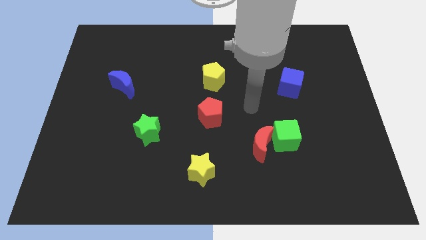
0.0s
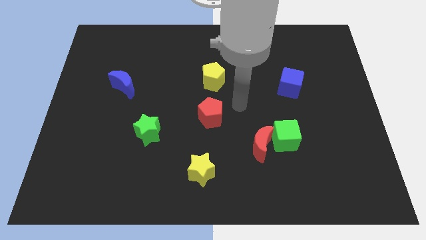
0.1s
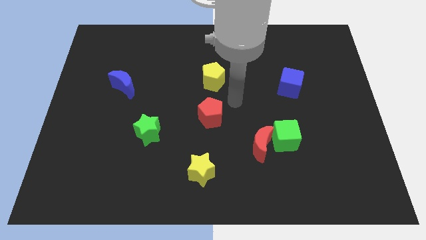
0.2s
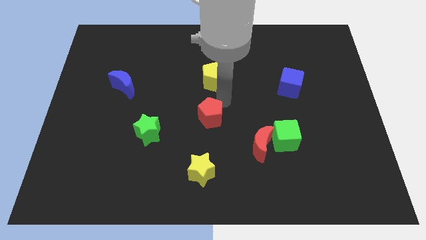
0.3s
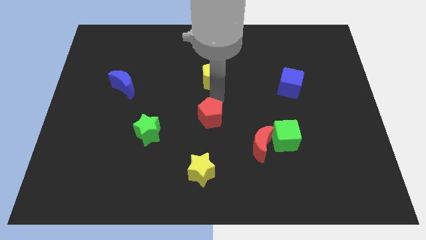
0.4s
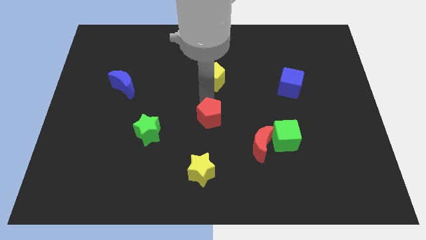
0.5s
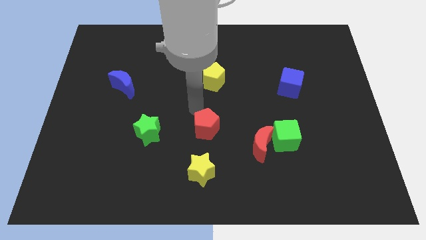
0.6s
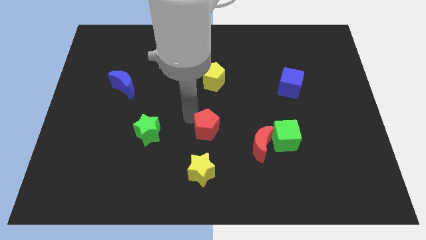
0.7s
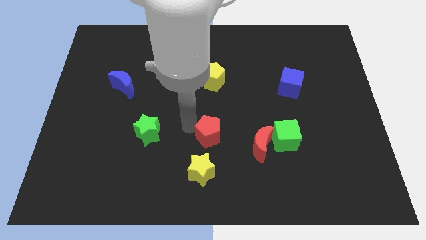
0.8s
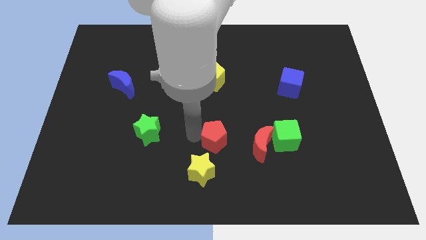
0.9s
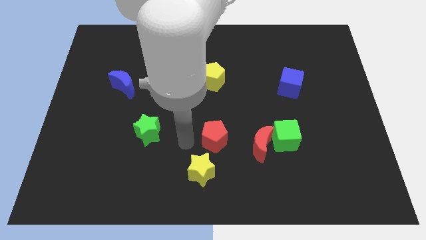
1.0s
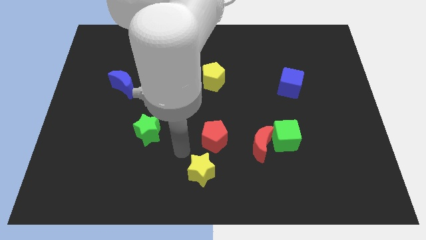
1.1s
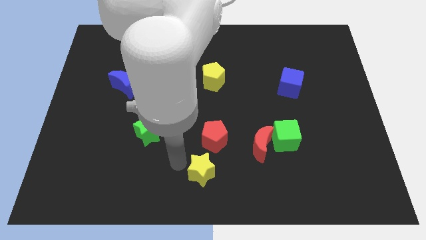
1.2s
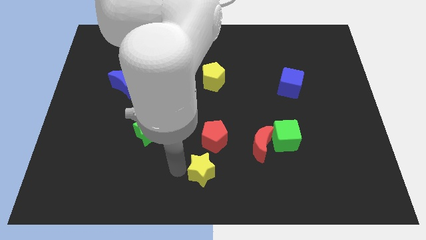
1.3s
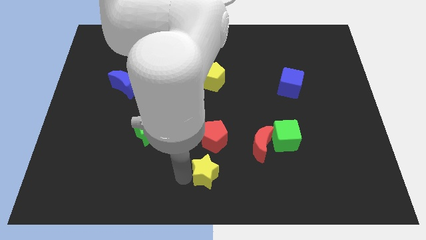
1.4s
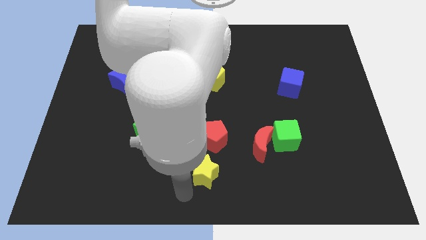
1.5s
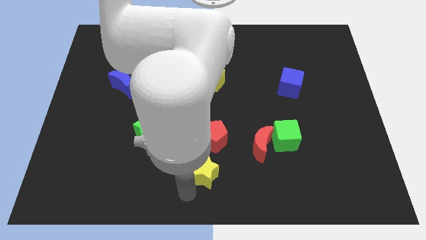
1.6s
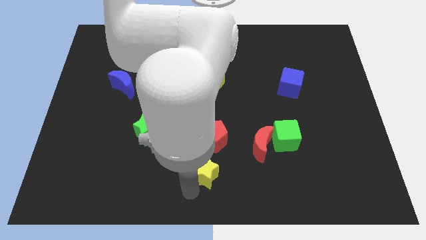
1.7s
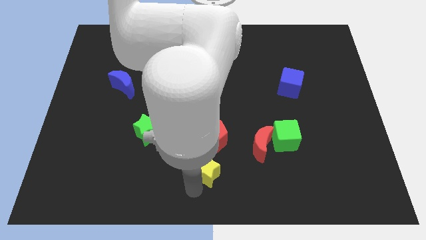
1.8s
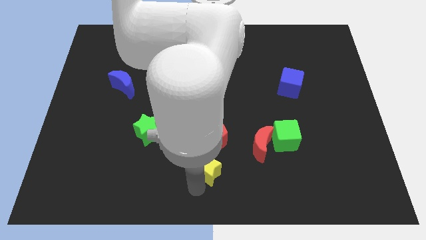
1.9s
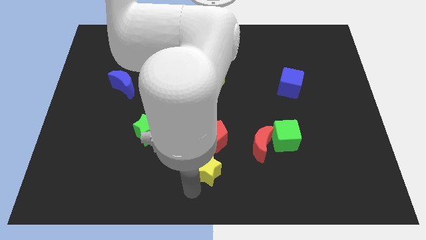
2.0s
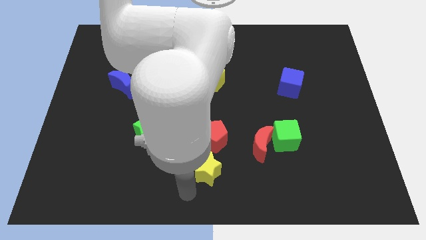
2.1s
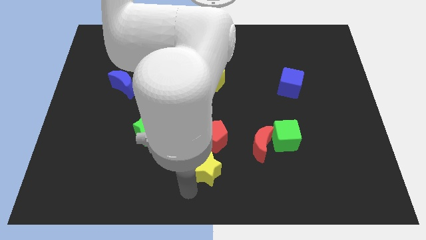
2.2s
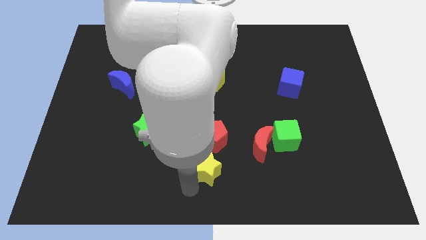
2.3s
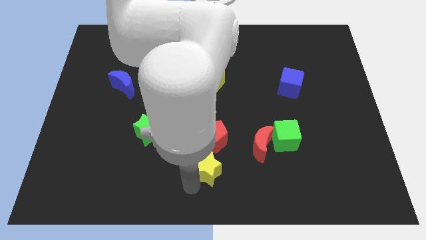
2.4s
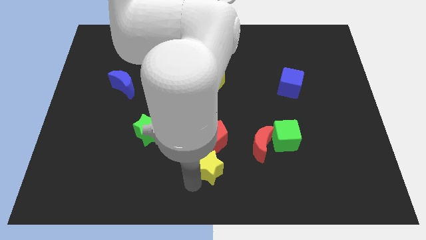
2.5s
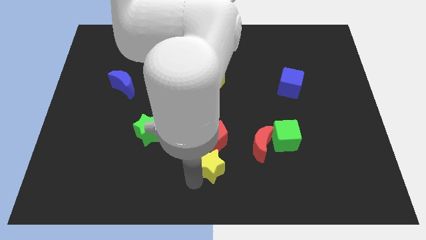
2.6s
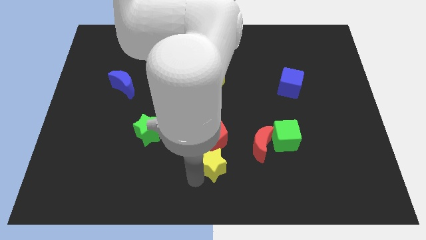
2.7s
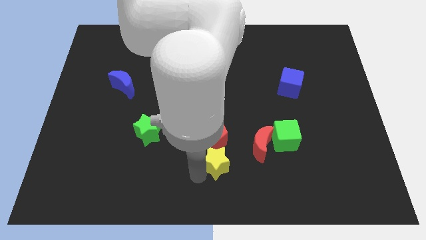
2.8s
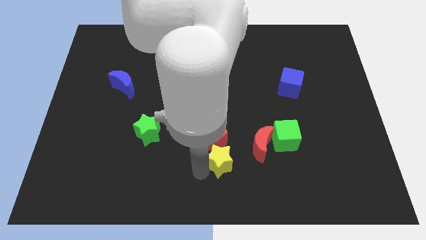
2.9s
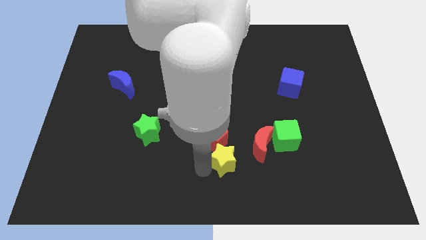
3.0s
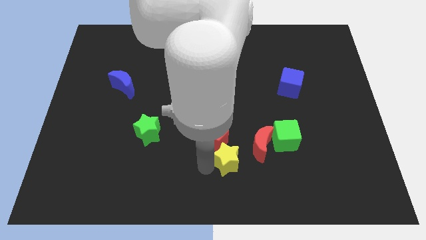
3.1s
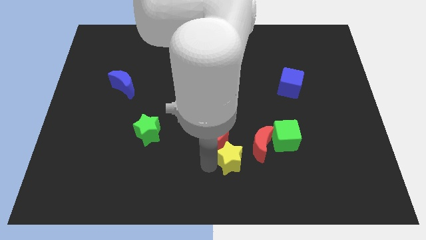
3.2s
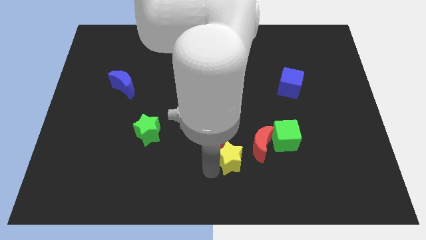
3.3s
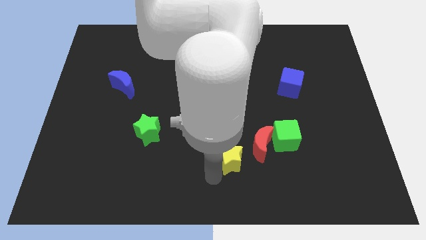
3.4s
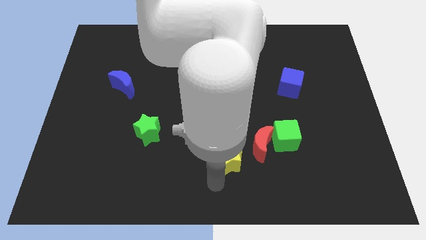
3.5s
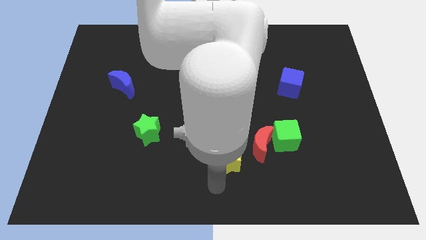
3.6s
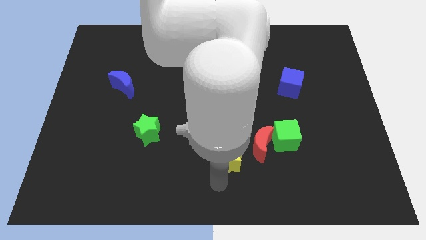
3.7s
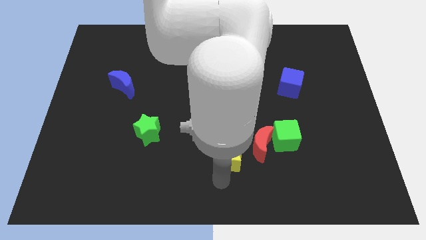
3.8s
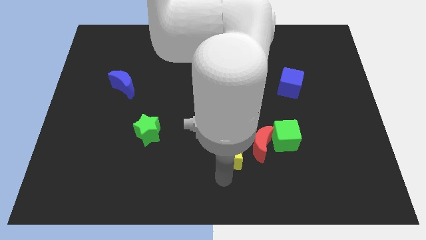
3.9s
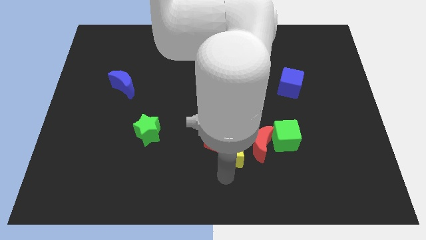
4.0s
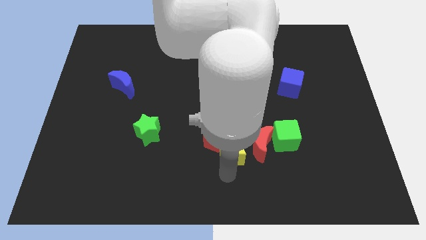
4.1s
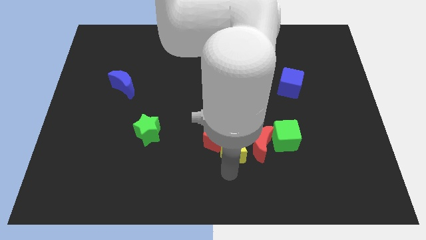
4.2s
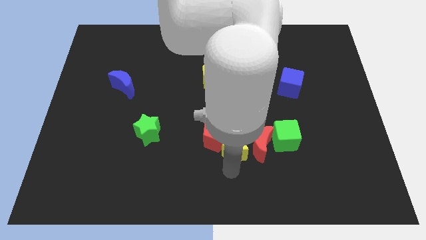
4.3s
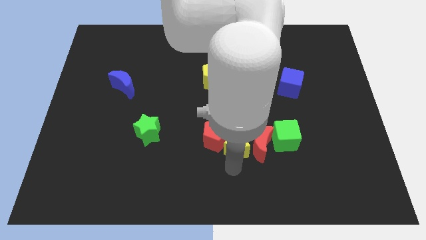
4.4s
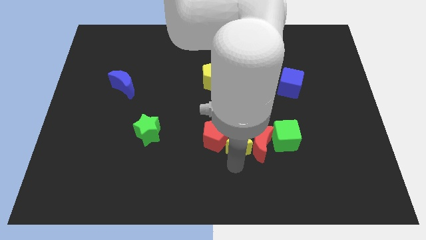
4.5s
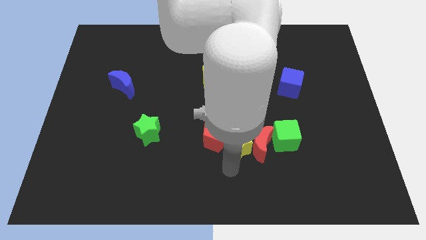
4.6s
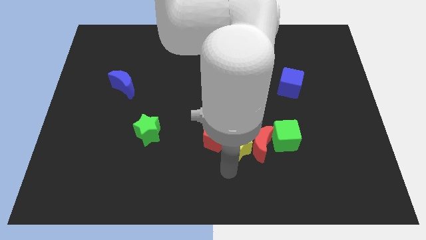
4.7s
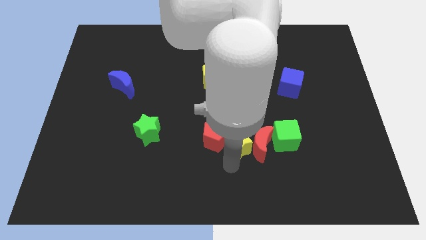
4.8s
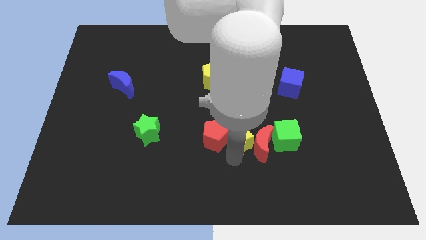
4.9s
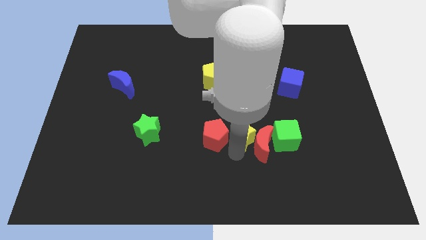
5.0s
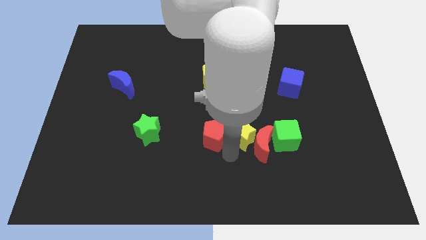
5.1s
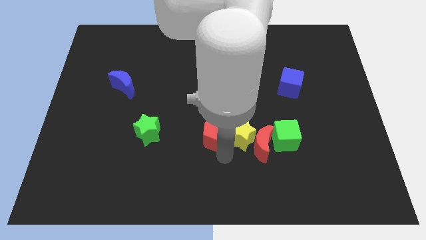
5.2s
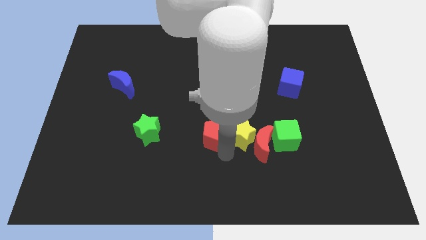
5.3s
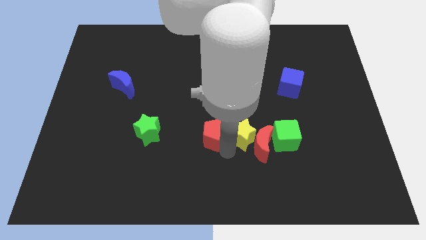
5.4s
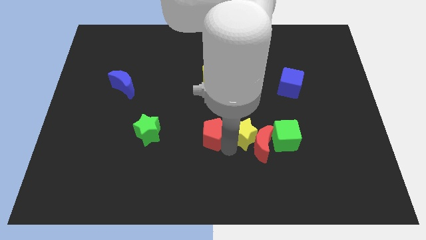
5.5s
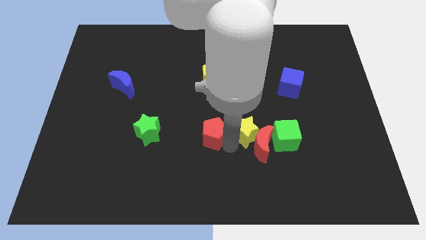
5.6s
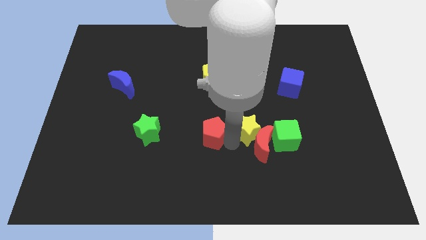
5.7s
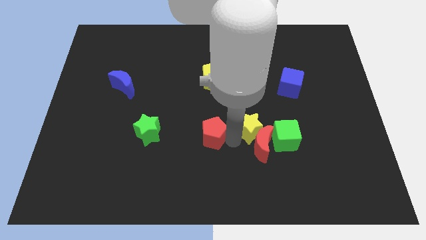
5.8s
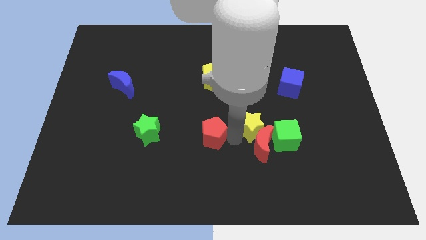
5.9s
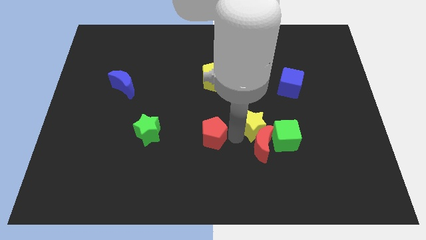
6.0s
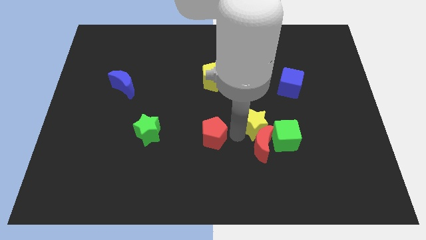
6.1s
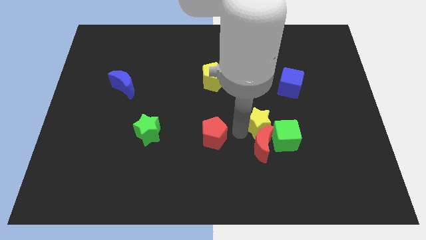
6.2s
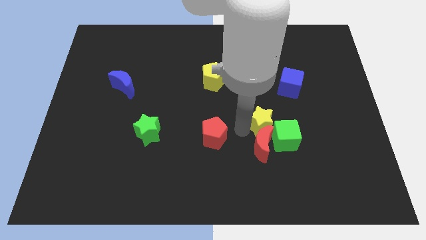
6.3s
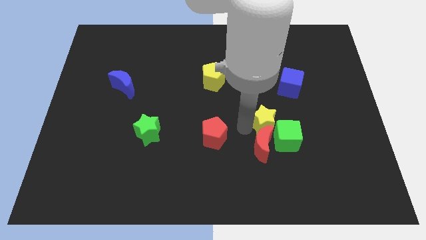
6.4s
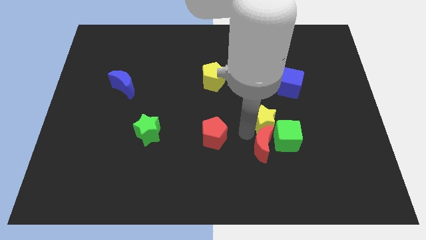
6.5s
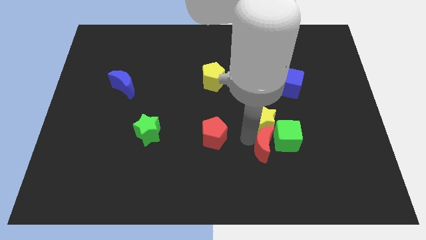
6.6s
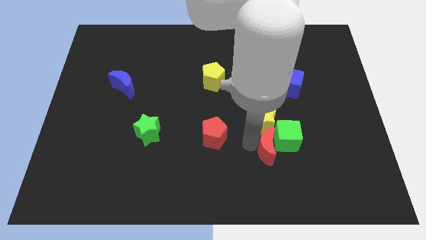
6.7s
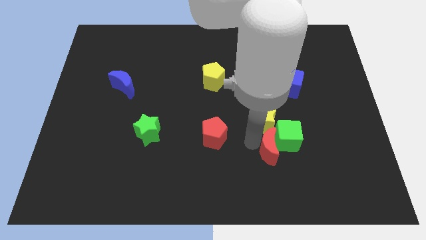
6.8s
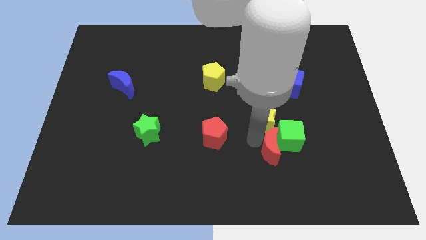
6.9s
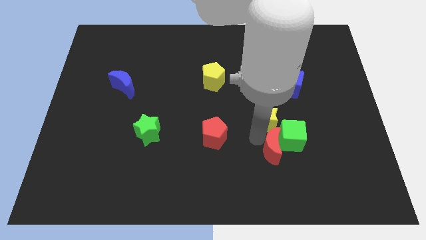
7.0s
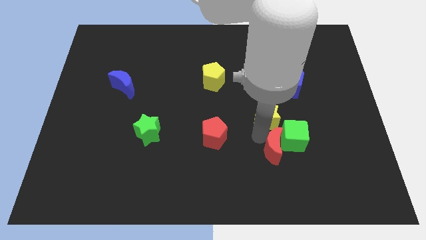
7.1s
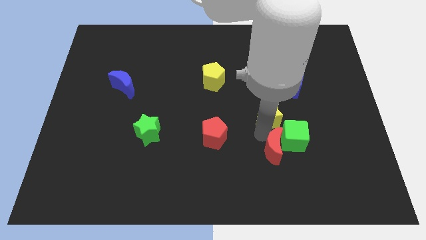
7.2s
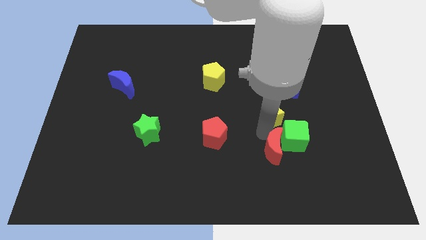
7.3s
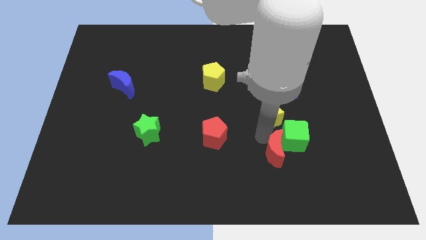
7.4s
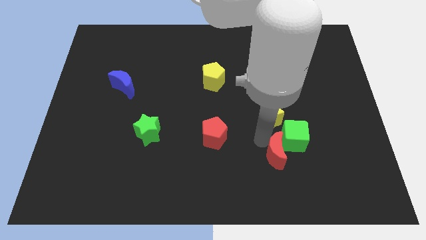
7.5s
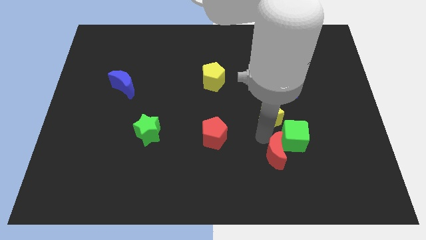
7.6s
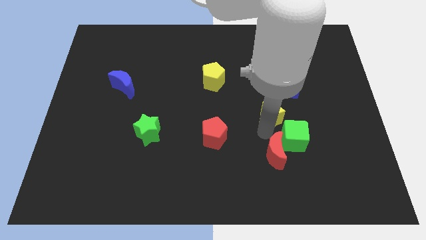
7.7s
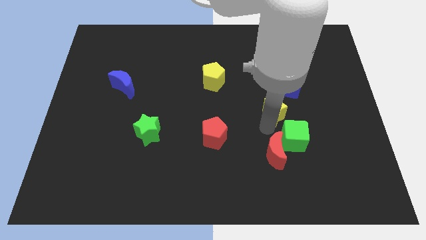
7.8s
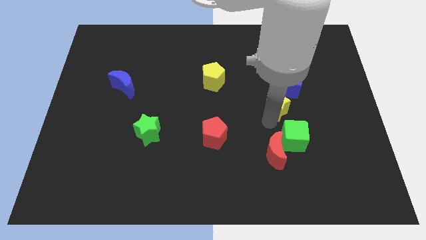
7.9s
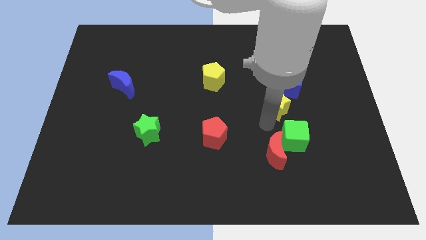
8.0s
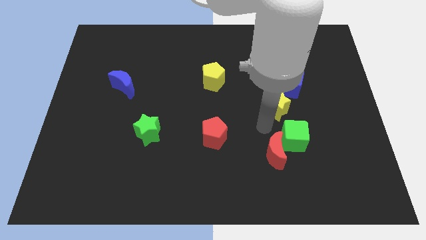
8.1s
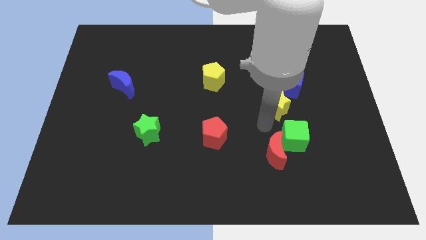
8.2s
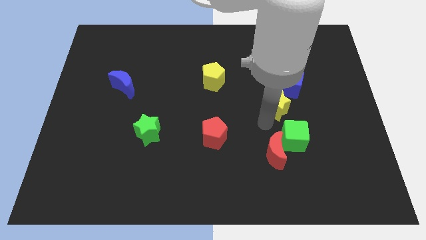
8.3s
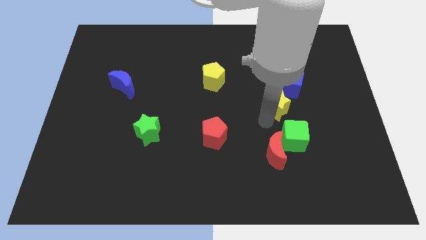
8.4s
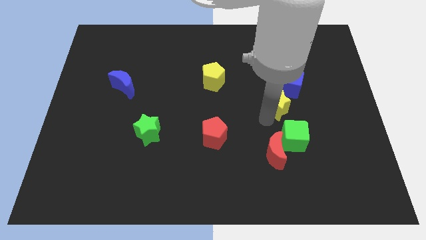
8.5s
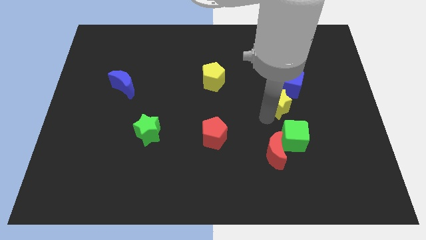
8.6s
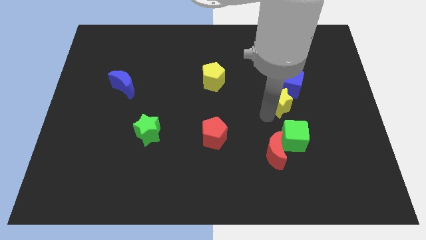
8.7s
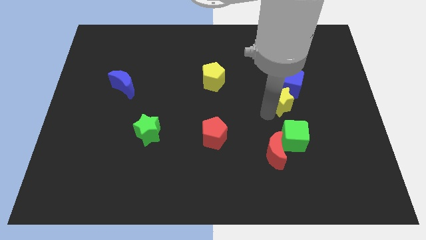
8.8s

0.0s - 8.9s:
put the yellow star towards the blue cube
